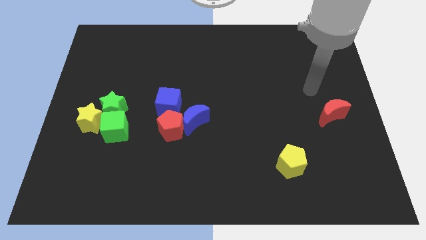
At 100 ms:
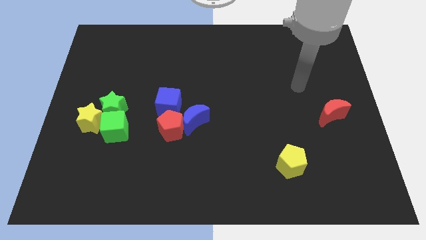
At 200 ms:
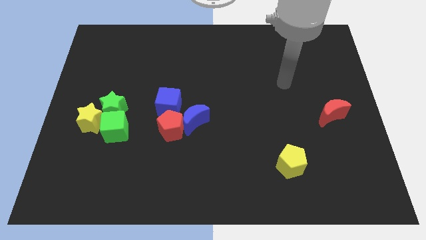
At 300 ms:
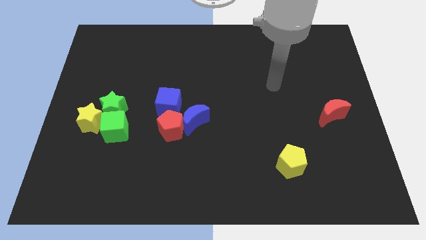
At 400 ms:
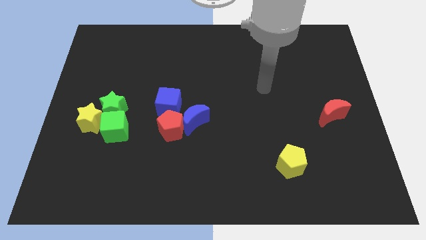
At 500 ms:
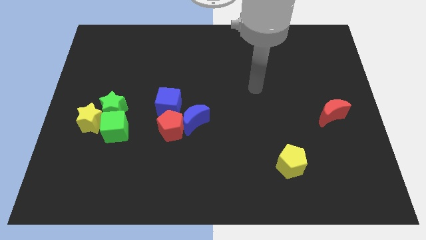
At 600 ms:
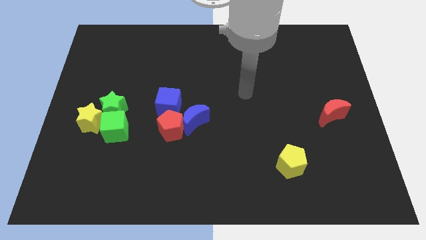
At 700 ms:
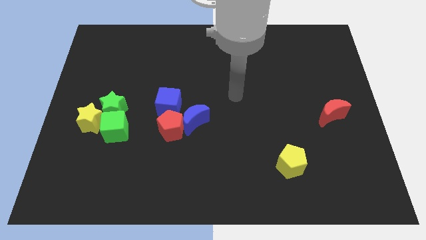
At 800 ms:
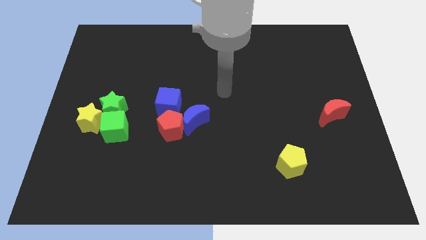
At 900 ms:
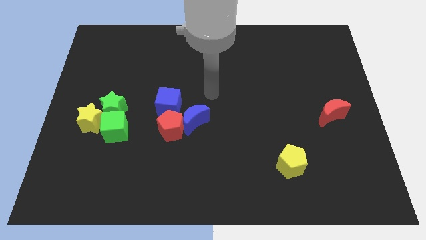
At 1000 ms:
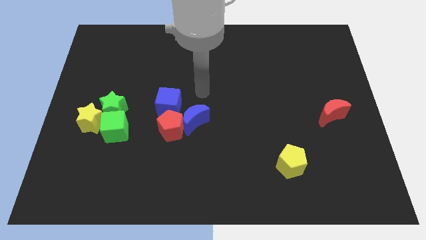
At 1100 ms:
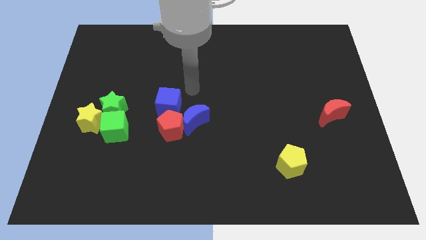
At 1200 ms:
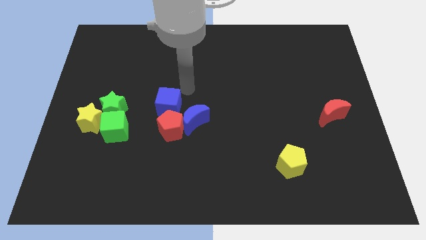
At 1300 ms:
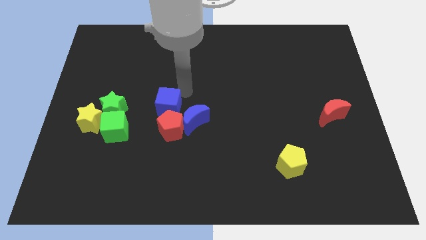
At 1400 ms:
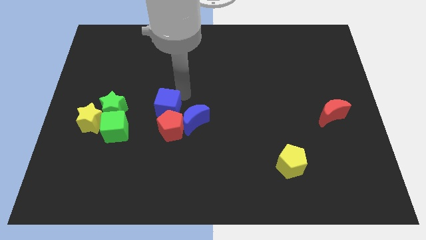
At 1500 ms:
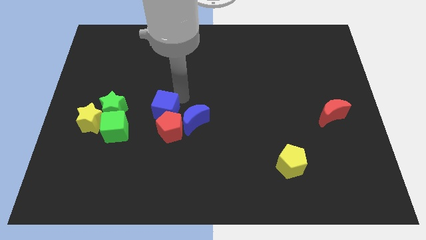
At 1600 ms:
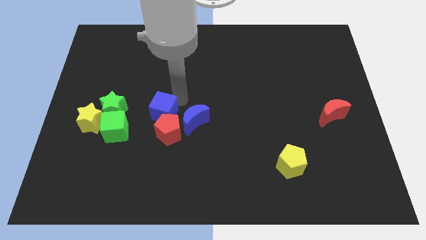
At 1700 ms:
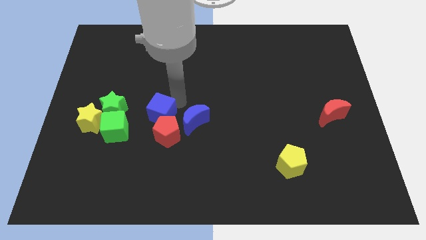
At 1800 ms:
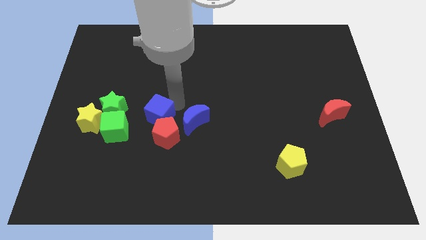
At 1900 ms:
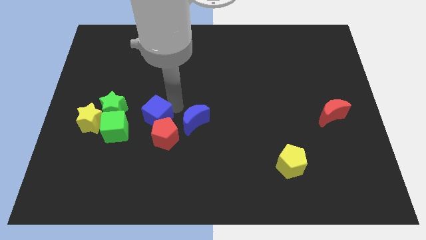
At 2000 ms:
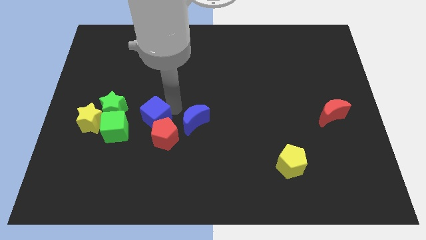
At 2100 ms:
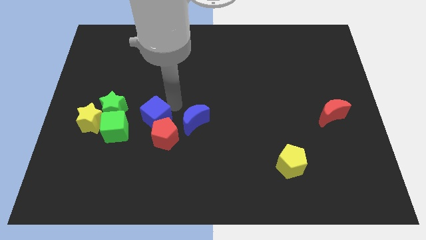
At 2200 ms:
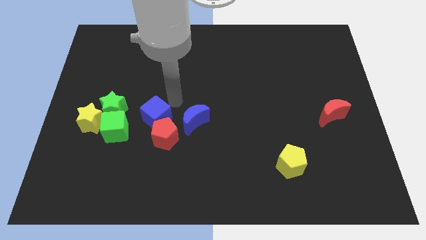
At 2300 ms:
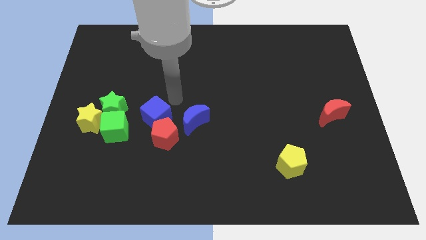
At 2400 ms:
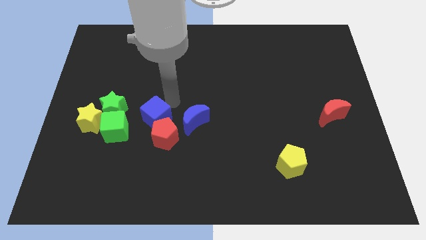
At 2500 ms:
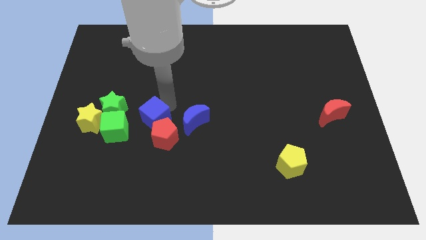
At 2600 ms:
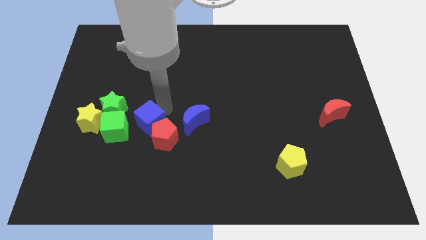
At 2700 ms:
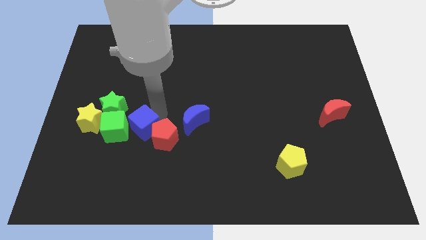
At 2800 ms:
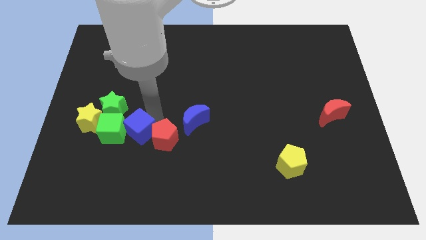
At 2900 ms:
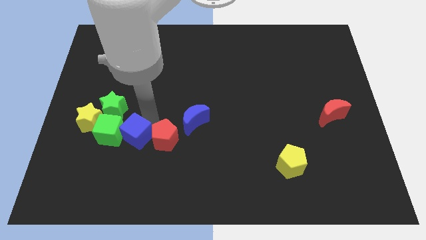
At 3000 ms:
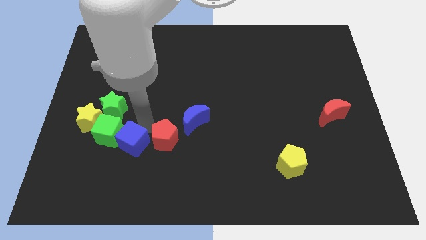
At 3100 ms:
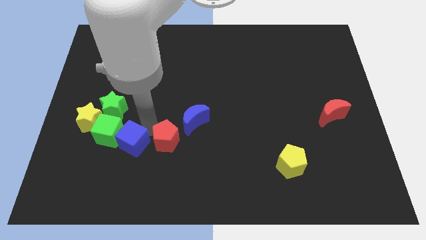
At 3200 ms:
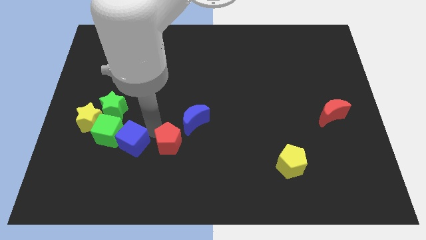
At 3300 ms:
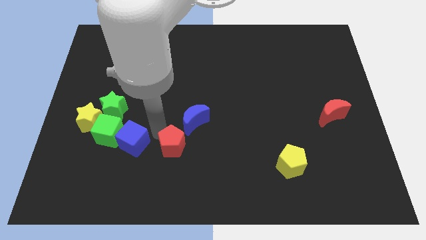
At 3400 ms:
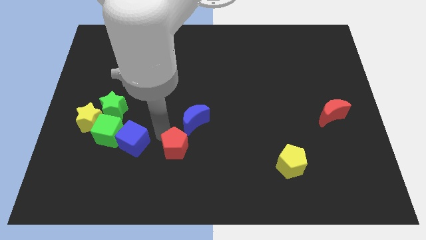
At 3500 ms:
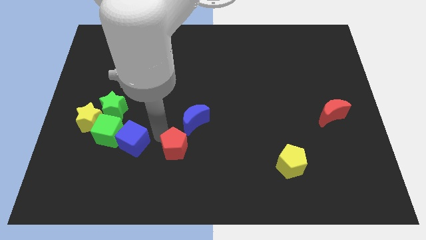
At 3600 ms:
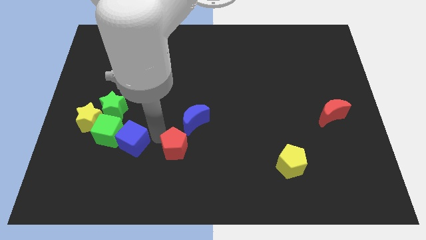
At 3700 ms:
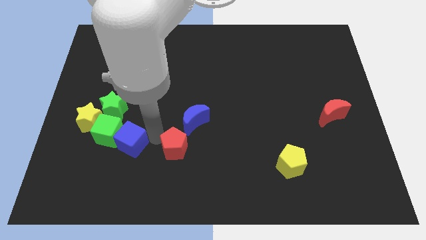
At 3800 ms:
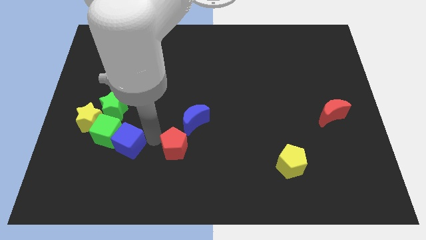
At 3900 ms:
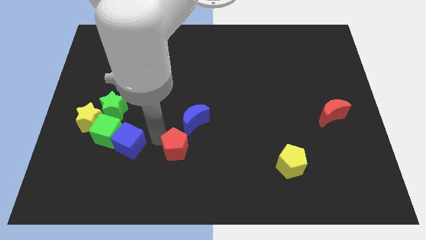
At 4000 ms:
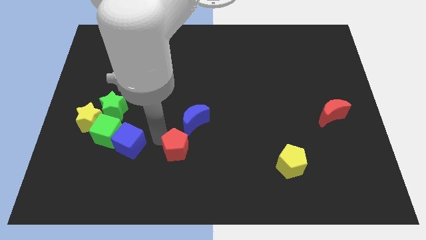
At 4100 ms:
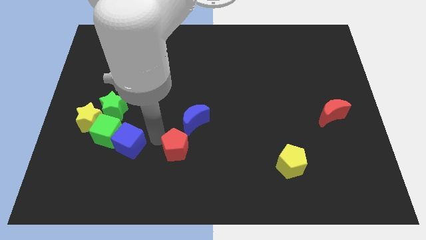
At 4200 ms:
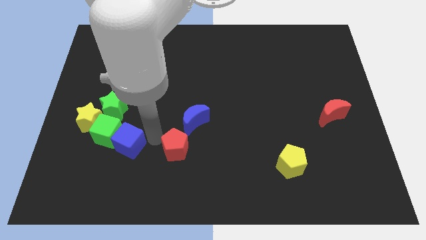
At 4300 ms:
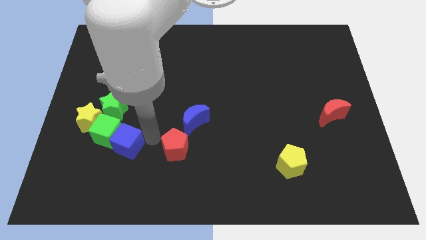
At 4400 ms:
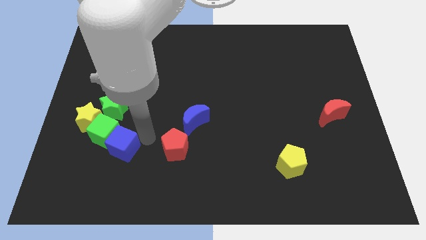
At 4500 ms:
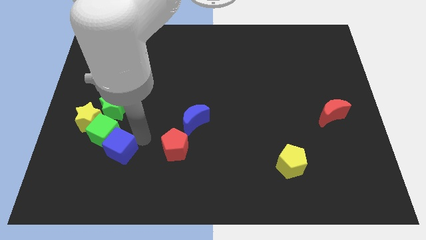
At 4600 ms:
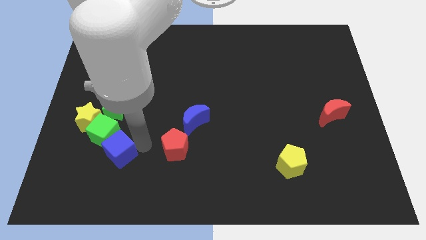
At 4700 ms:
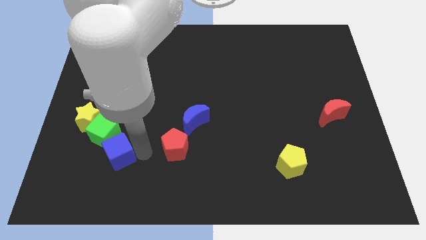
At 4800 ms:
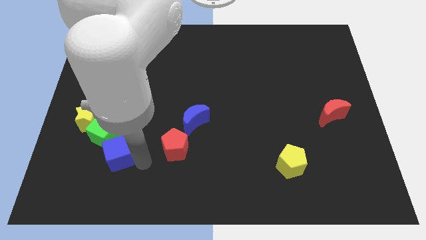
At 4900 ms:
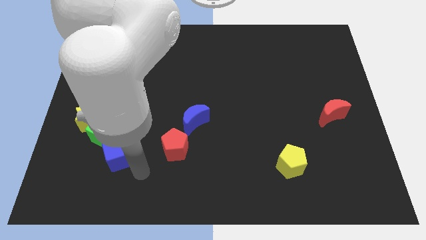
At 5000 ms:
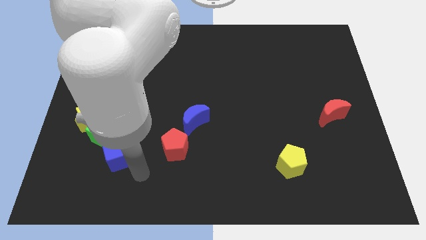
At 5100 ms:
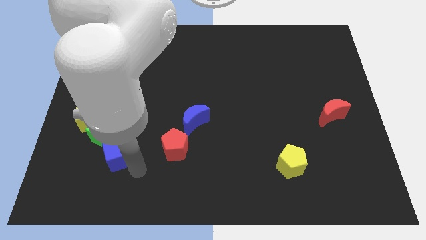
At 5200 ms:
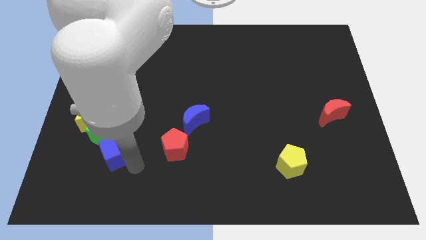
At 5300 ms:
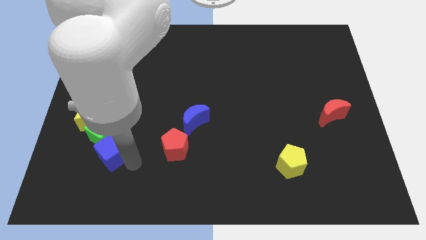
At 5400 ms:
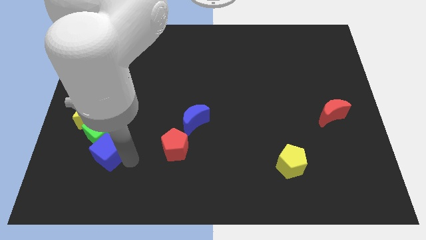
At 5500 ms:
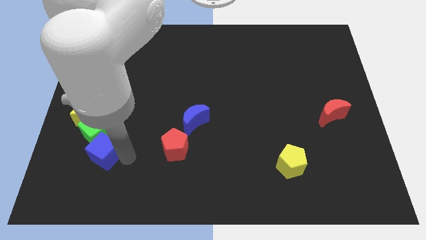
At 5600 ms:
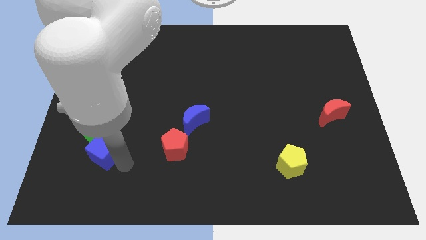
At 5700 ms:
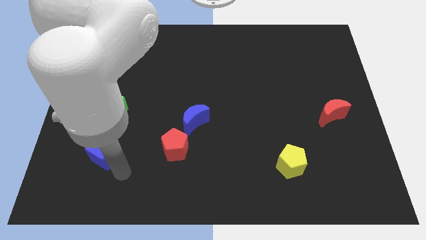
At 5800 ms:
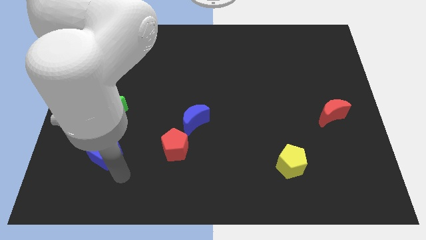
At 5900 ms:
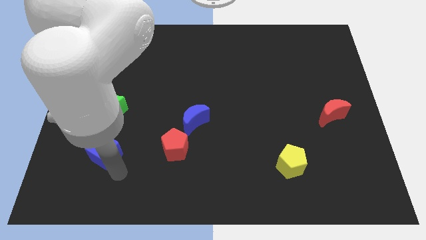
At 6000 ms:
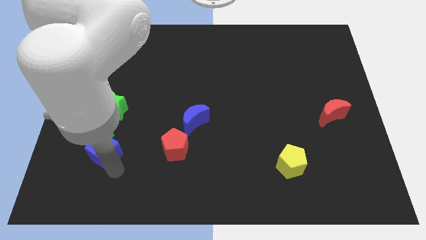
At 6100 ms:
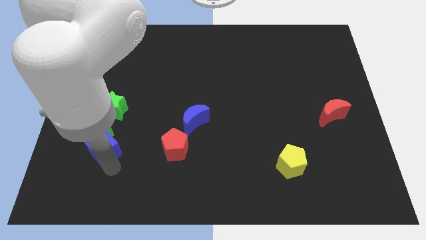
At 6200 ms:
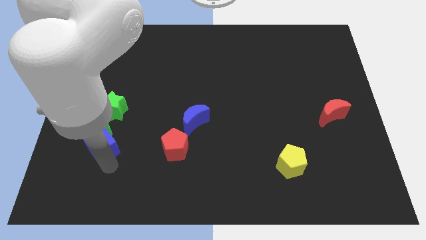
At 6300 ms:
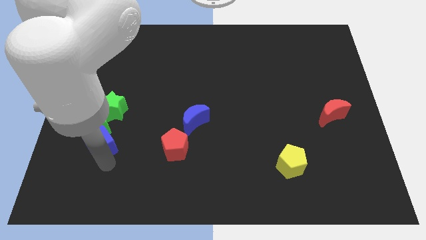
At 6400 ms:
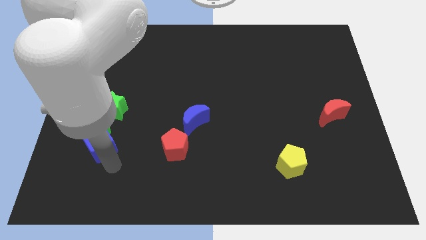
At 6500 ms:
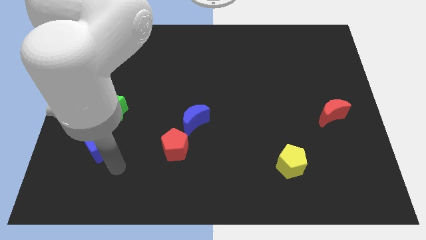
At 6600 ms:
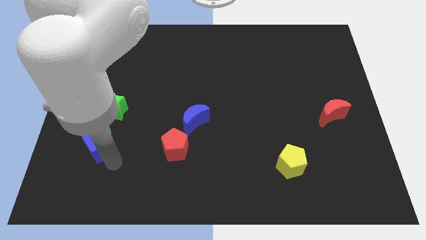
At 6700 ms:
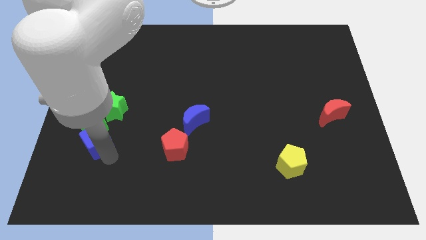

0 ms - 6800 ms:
slide the blue cube to the bottom left side of the green star

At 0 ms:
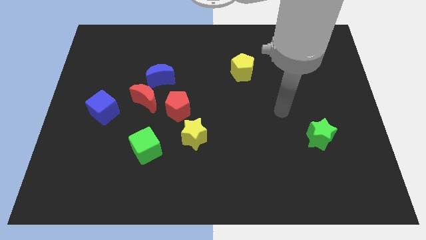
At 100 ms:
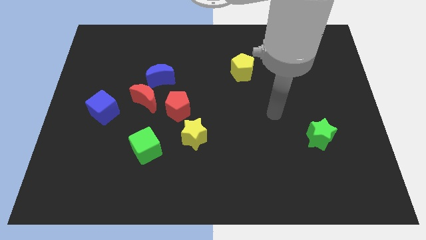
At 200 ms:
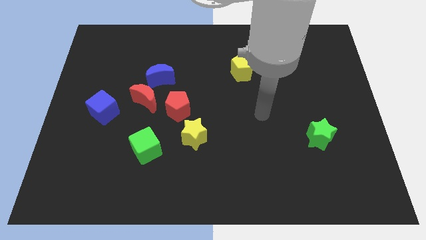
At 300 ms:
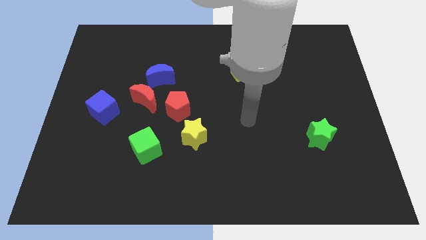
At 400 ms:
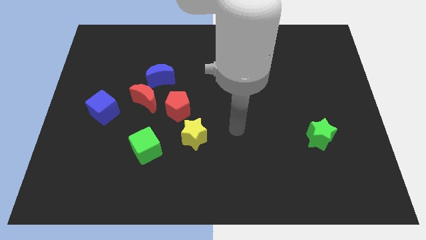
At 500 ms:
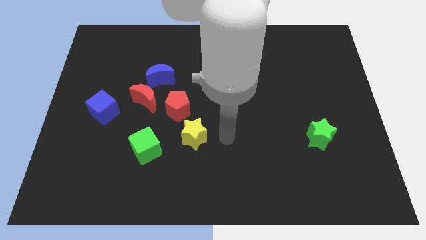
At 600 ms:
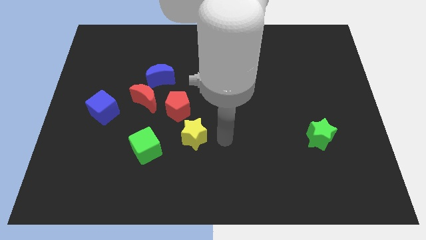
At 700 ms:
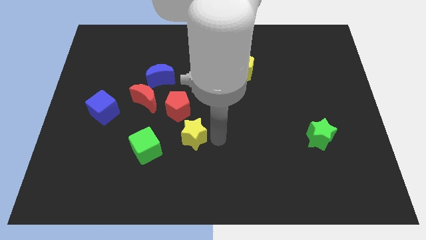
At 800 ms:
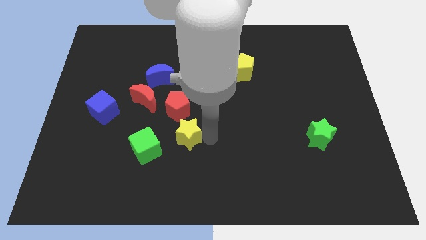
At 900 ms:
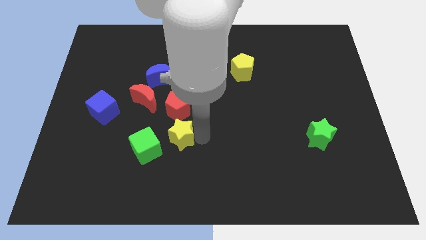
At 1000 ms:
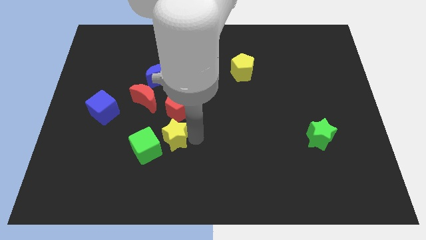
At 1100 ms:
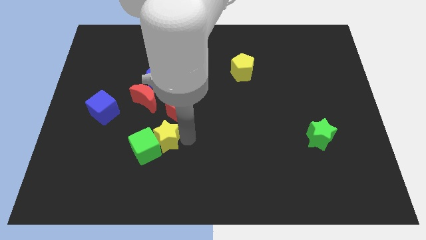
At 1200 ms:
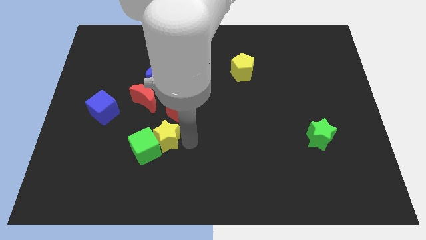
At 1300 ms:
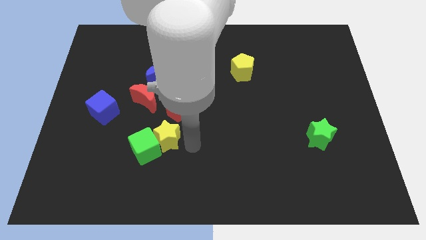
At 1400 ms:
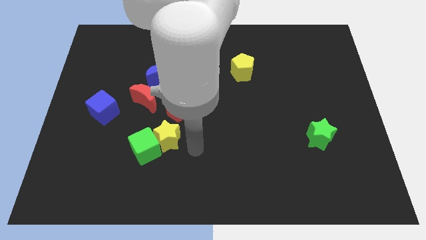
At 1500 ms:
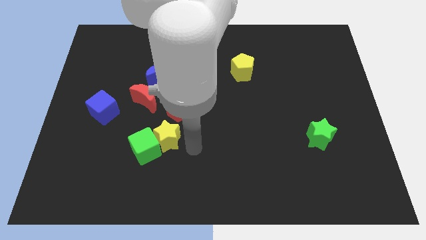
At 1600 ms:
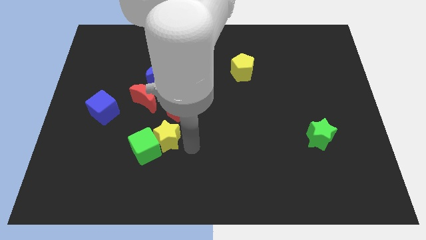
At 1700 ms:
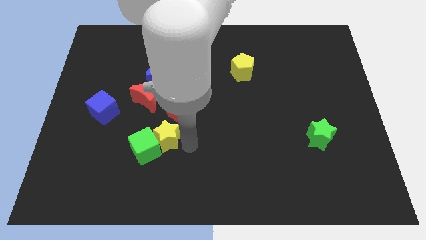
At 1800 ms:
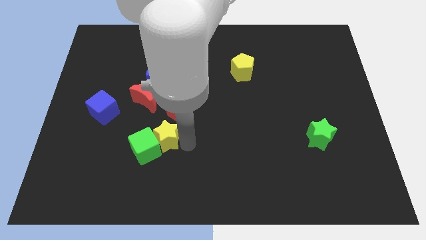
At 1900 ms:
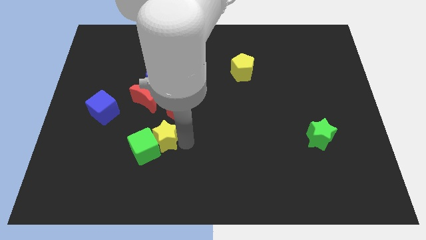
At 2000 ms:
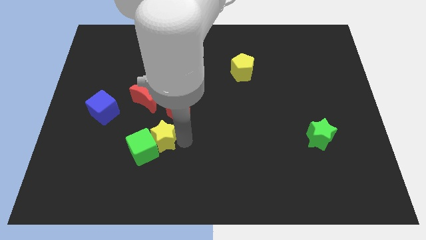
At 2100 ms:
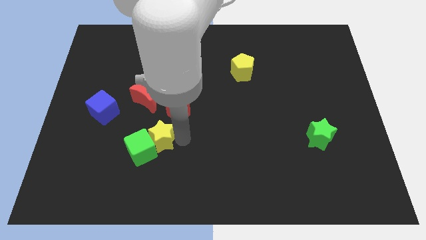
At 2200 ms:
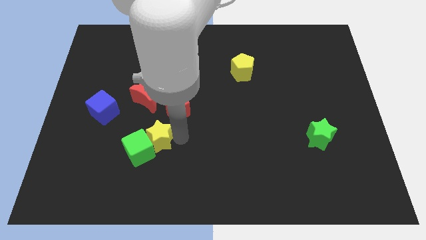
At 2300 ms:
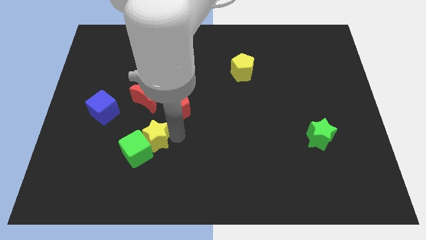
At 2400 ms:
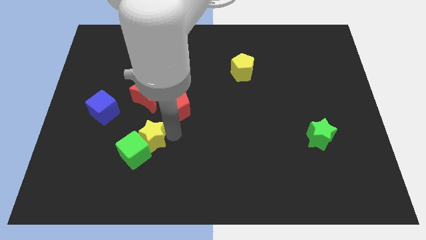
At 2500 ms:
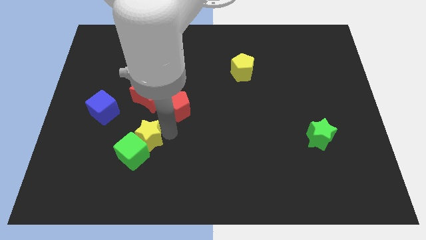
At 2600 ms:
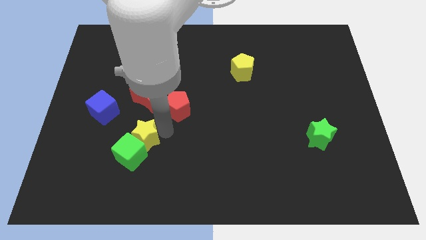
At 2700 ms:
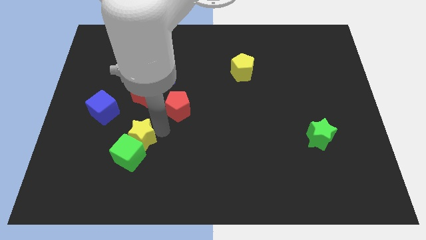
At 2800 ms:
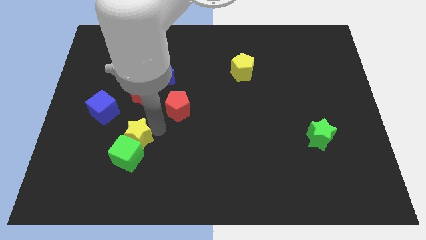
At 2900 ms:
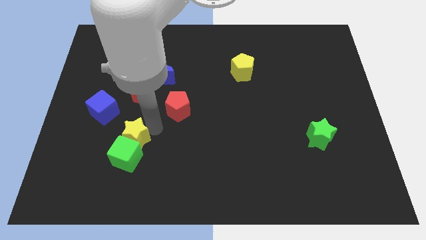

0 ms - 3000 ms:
put the yellow star to the top left side of the green cube
